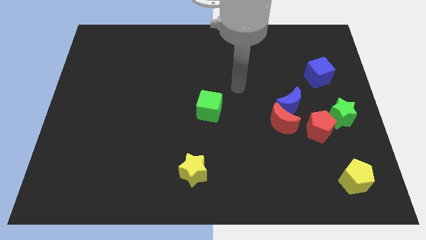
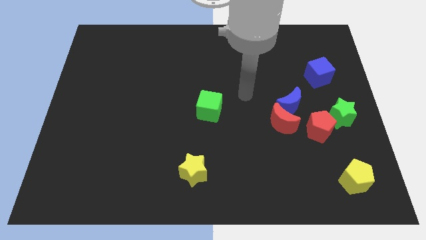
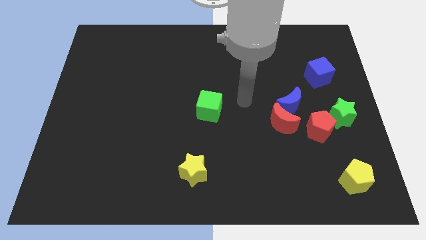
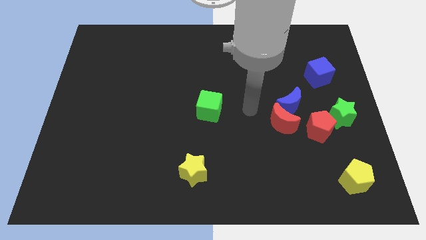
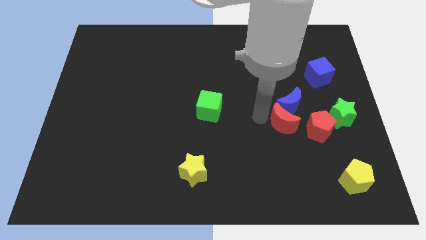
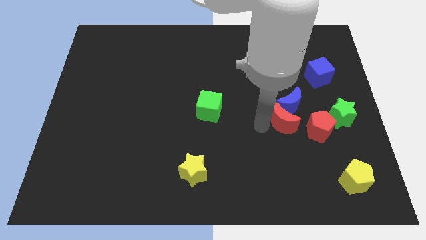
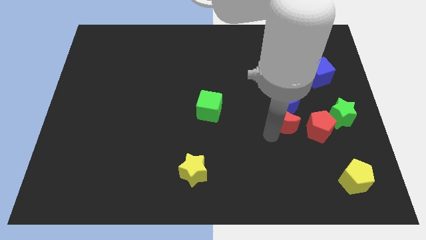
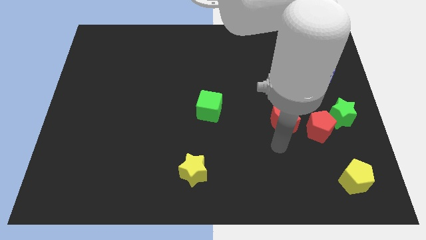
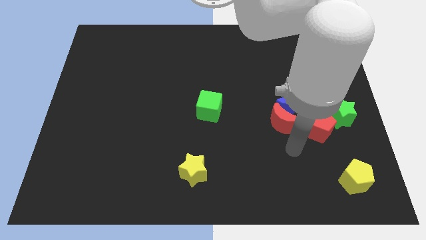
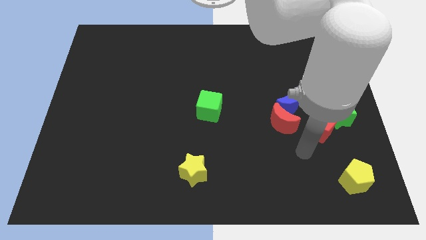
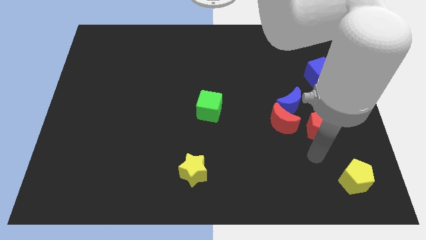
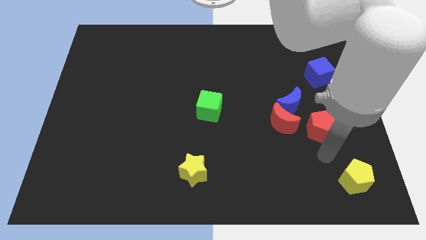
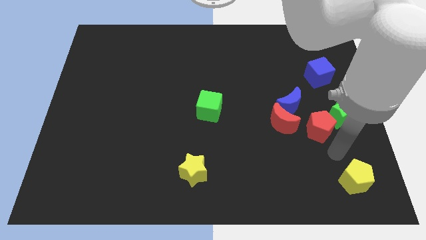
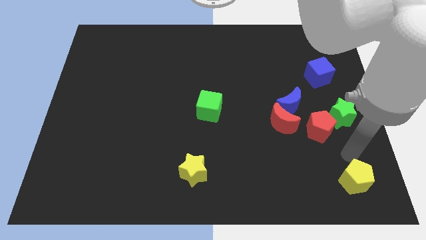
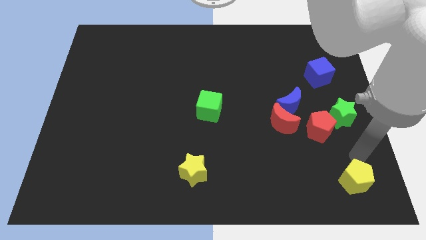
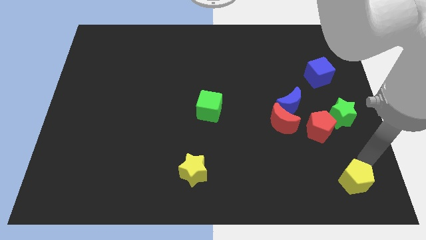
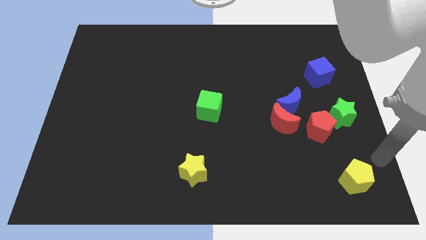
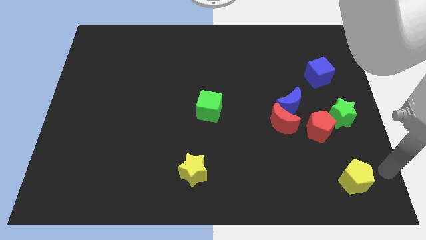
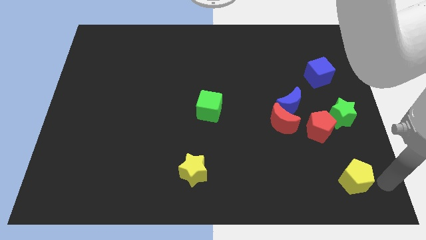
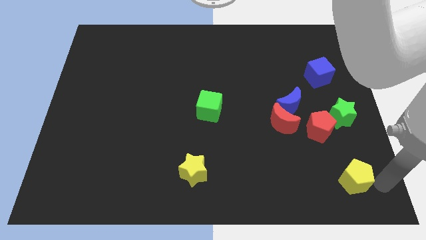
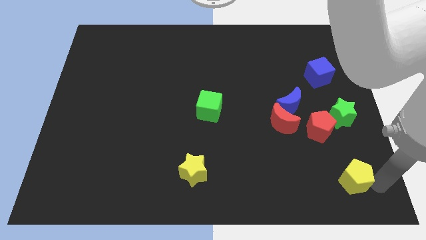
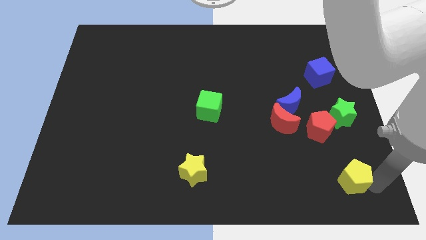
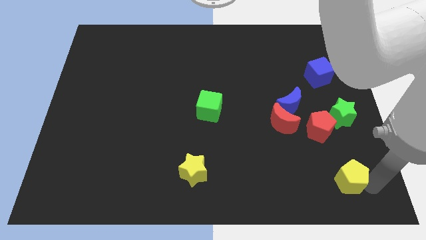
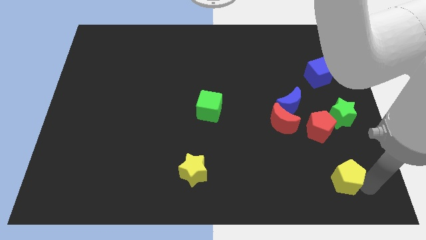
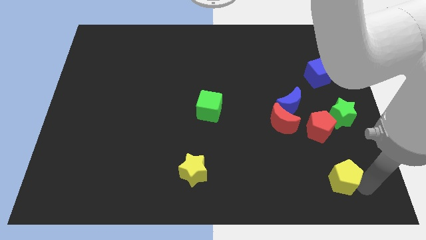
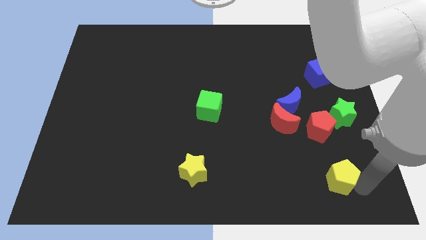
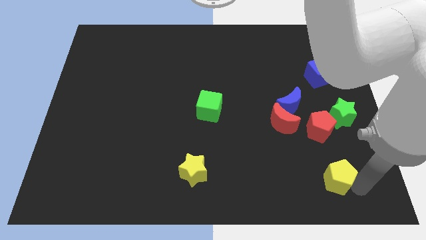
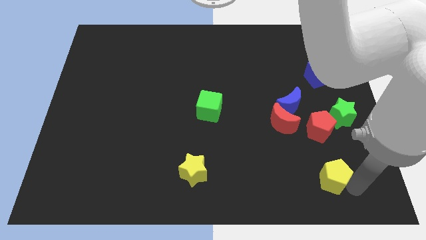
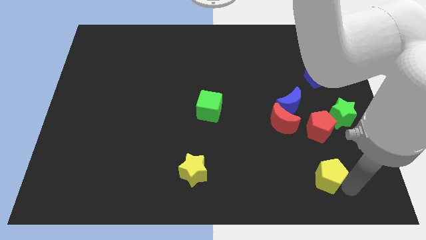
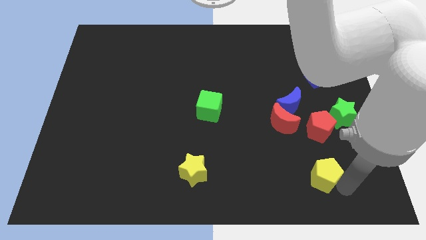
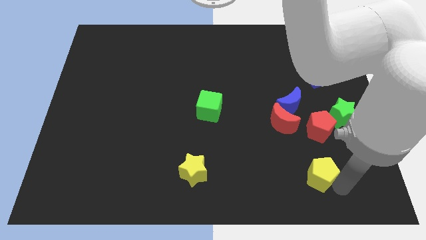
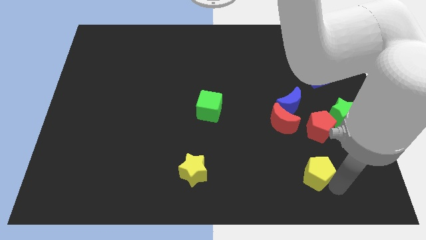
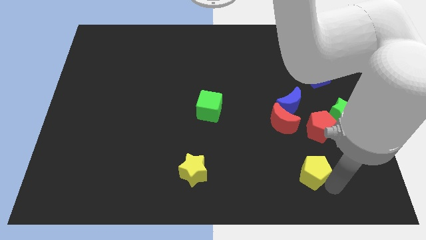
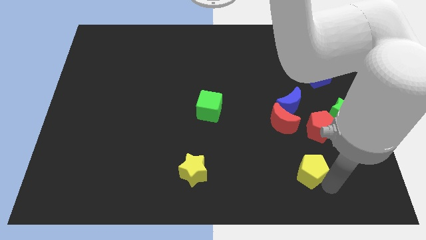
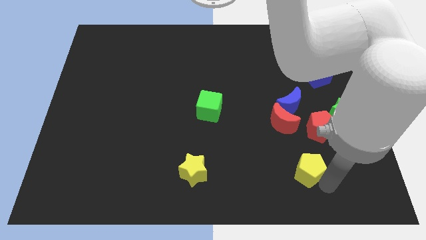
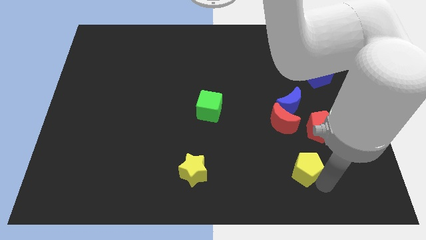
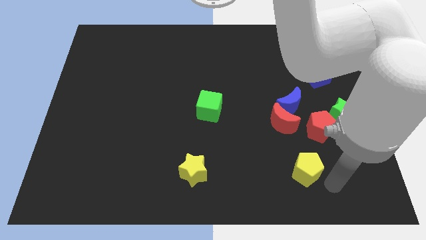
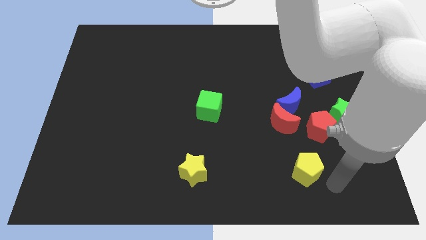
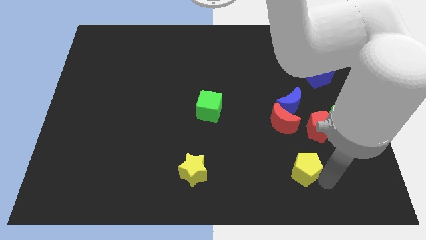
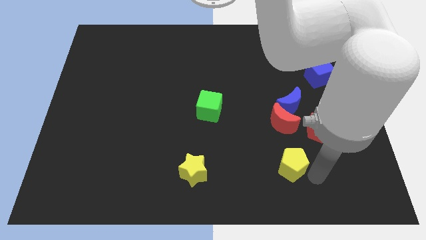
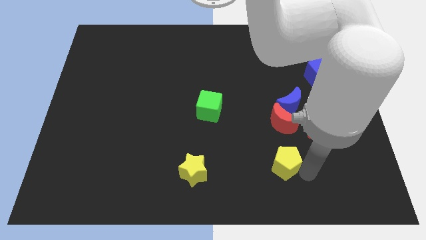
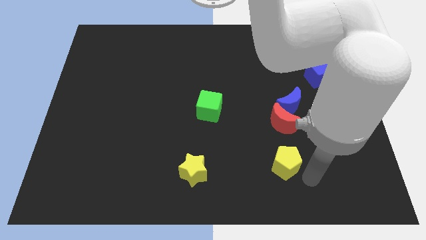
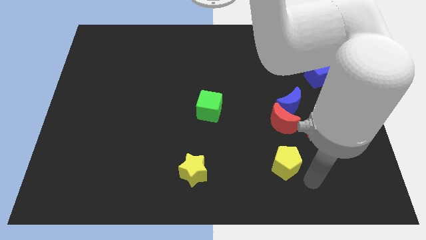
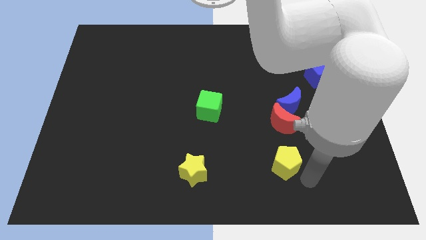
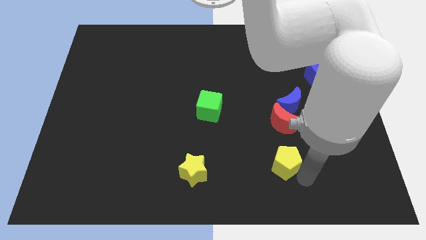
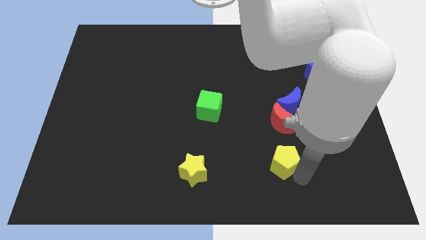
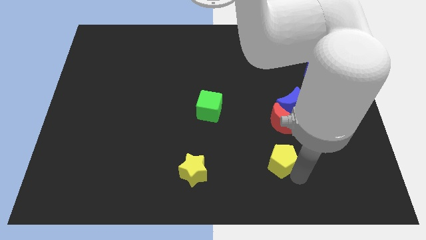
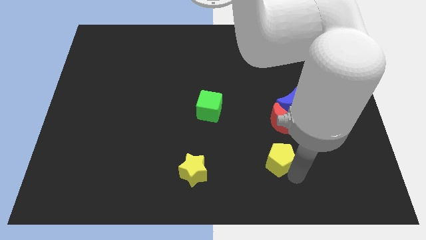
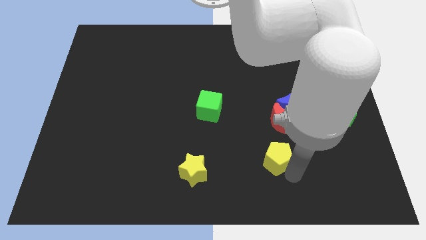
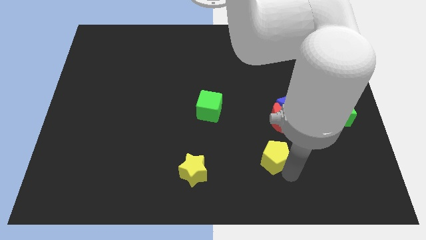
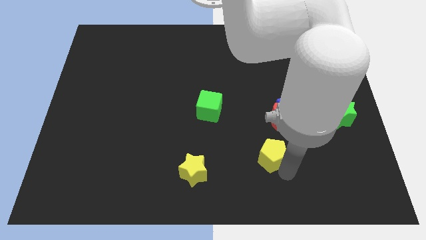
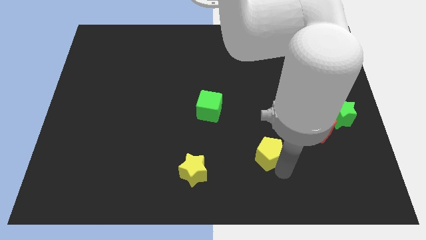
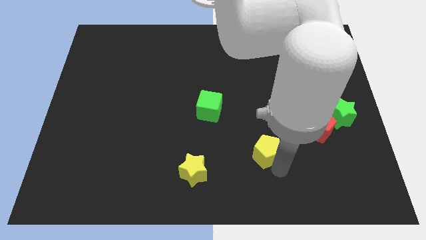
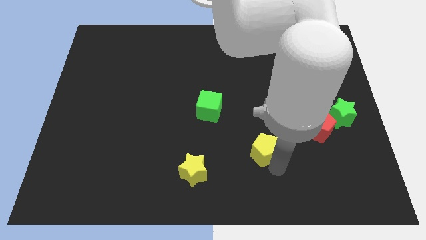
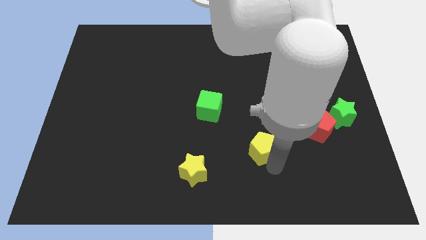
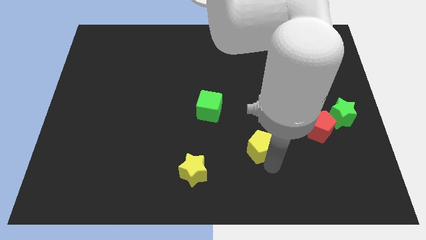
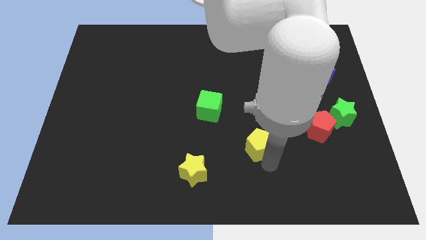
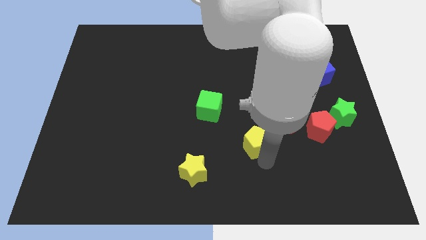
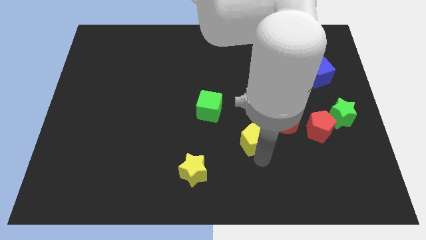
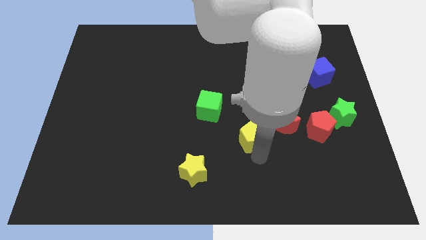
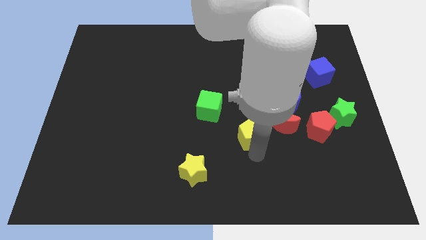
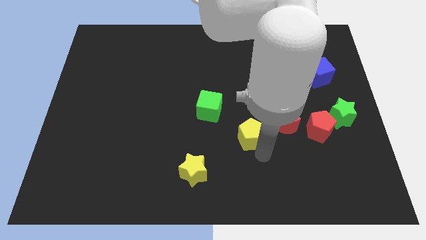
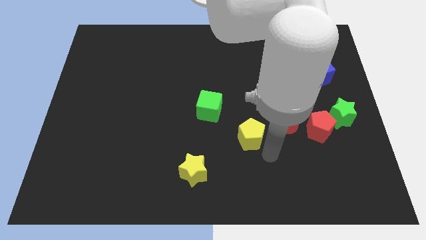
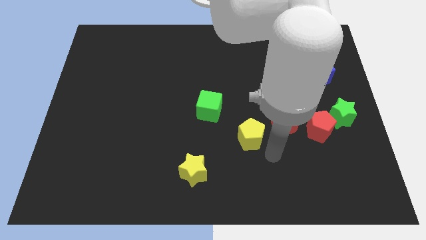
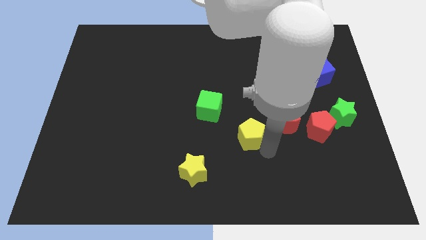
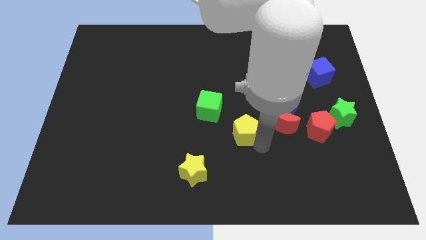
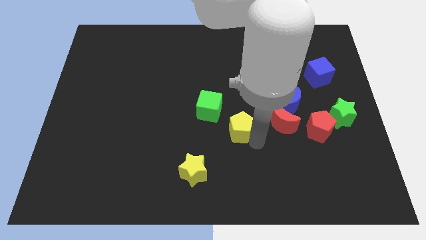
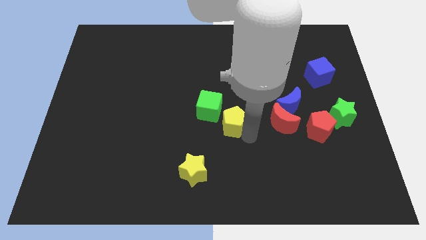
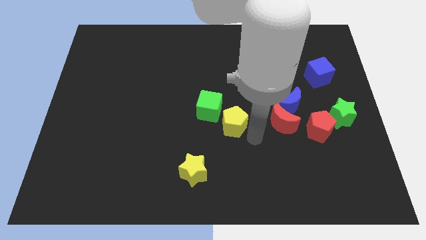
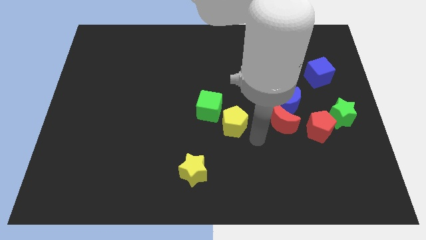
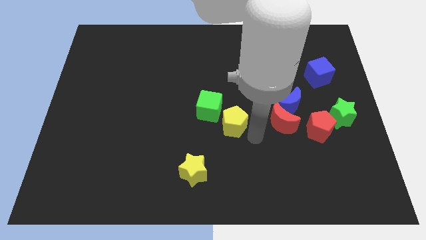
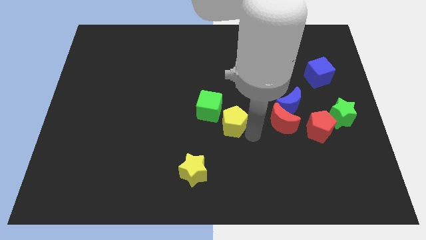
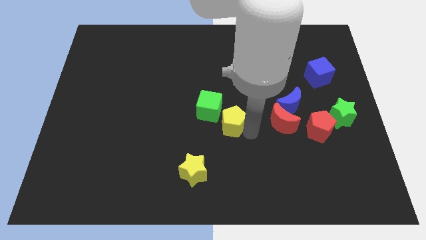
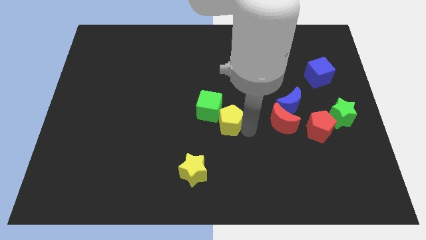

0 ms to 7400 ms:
move the yellow pentagon to the green cube
